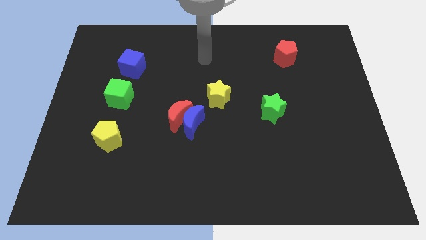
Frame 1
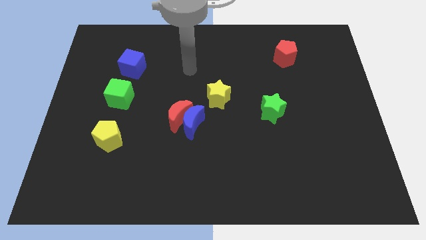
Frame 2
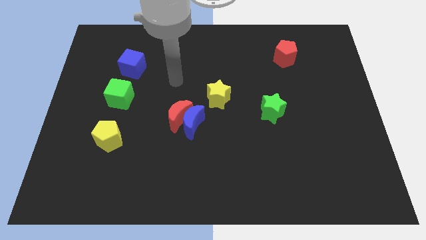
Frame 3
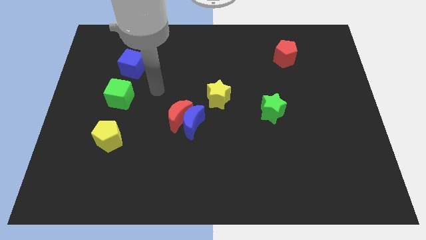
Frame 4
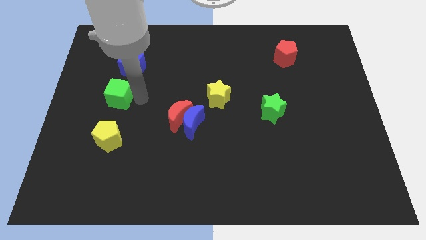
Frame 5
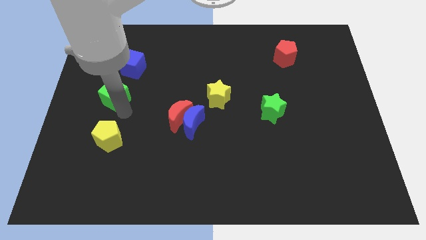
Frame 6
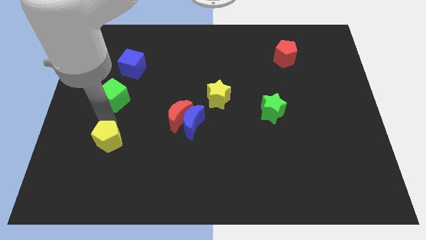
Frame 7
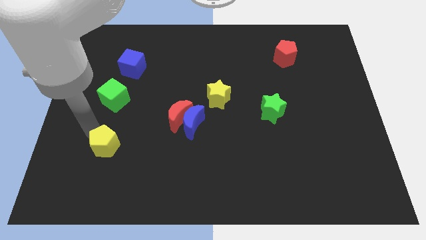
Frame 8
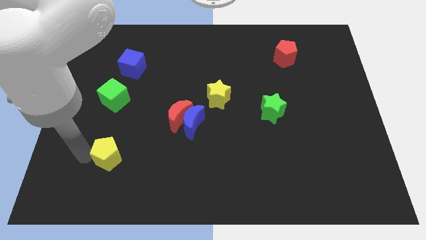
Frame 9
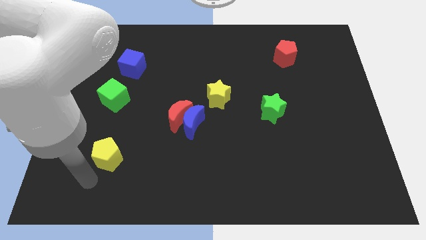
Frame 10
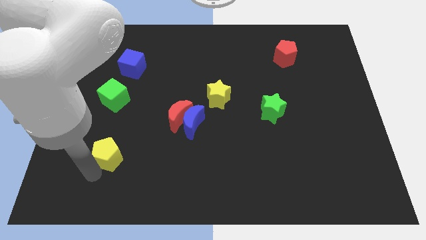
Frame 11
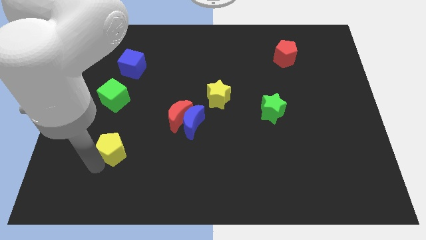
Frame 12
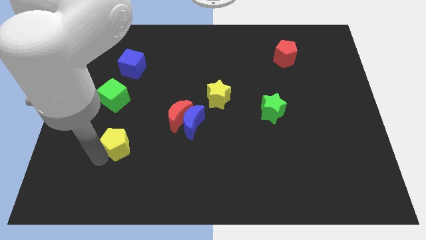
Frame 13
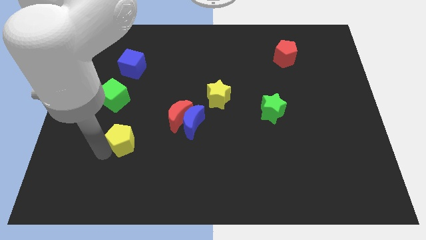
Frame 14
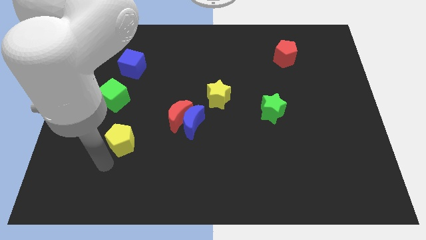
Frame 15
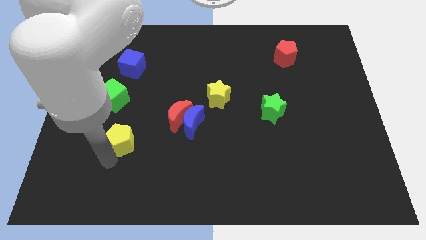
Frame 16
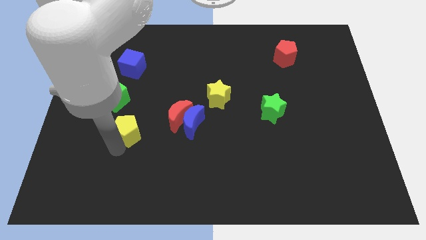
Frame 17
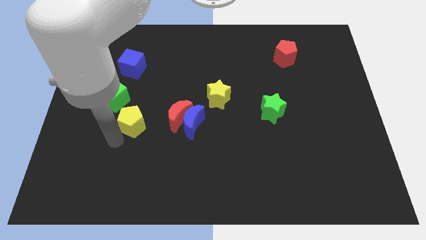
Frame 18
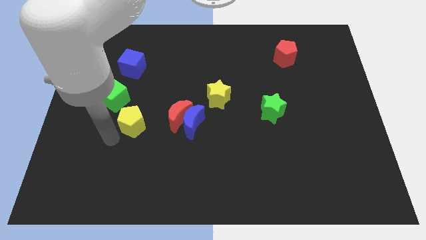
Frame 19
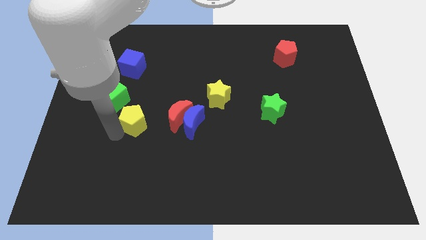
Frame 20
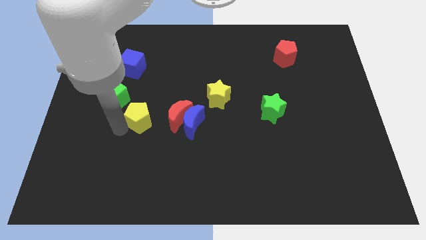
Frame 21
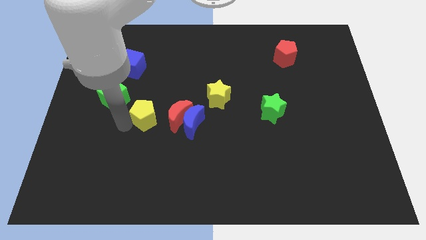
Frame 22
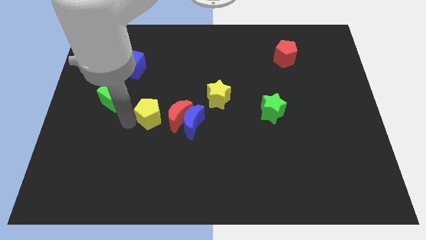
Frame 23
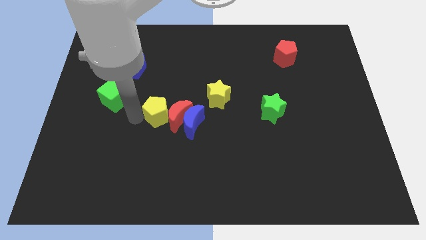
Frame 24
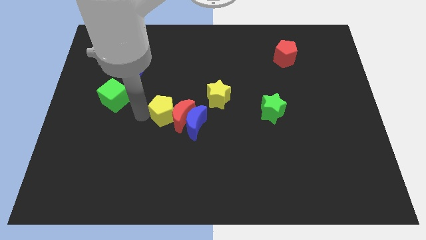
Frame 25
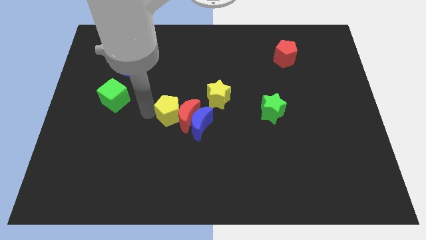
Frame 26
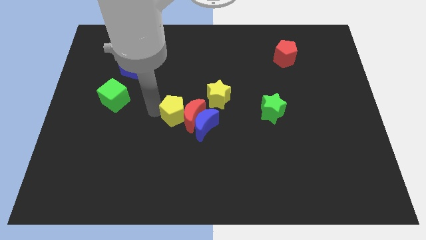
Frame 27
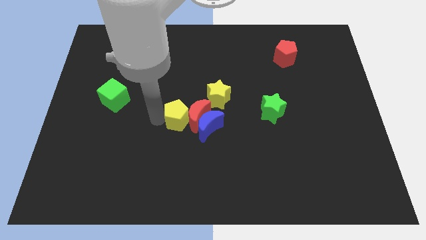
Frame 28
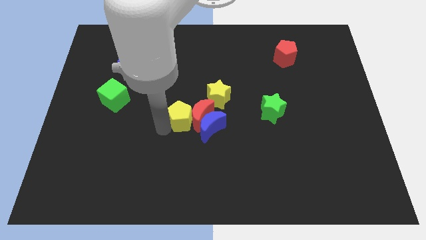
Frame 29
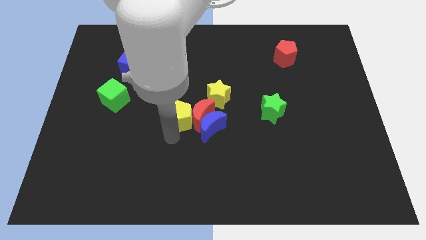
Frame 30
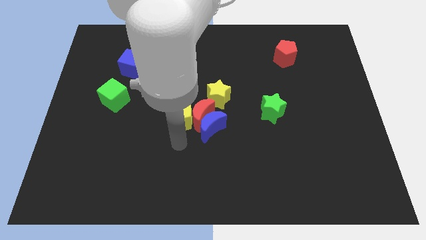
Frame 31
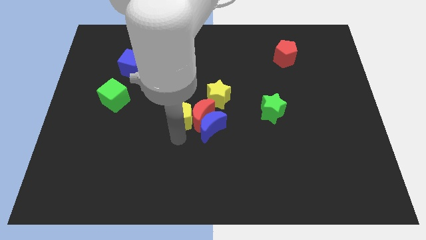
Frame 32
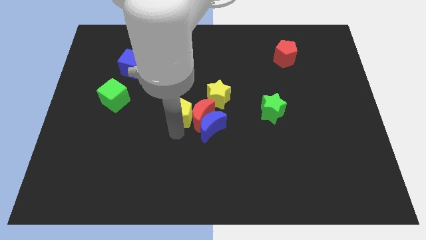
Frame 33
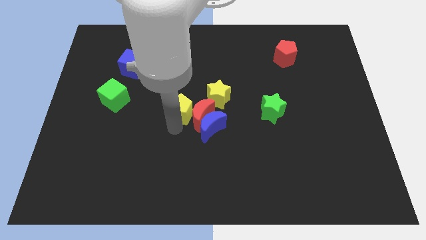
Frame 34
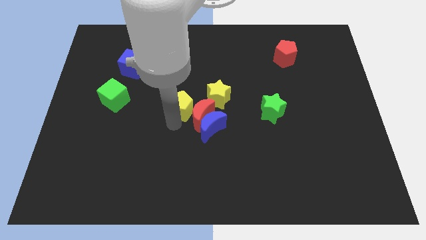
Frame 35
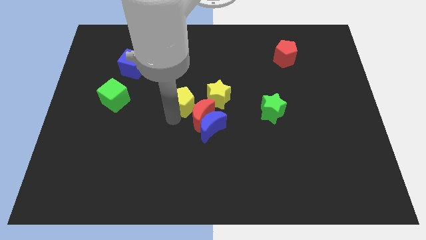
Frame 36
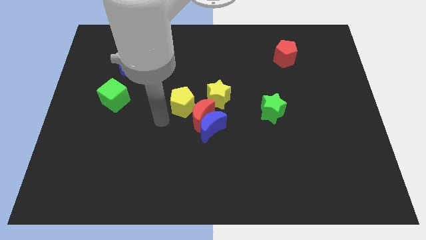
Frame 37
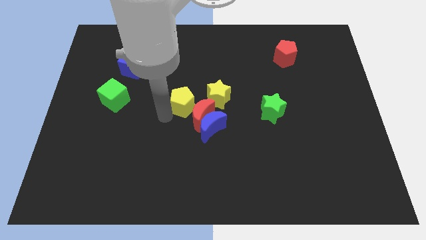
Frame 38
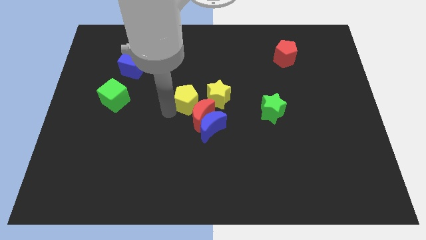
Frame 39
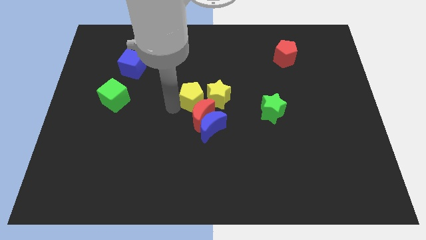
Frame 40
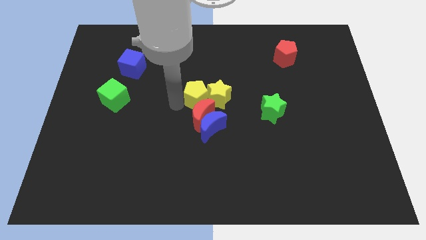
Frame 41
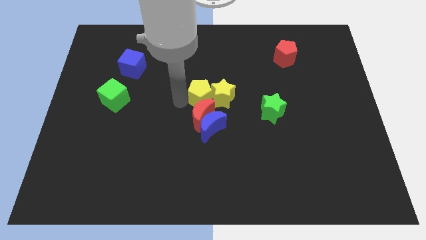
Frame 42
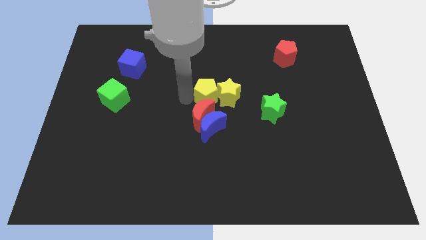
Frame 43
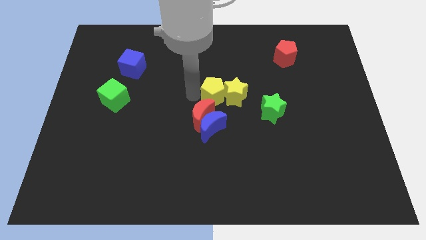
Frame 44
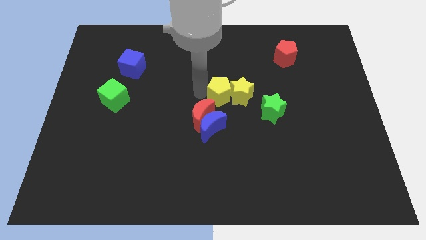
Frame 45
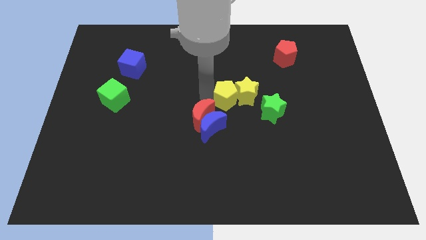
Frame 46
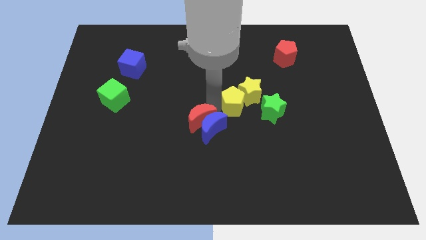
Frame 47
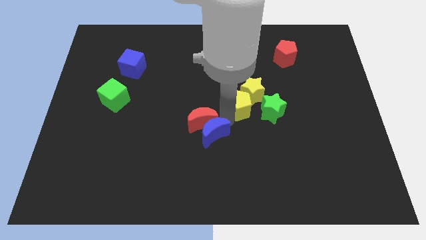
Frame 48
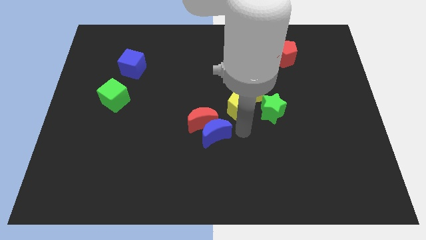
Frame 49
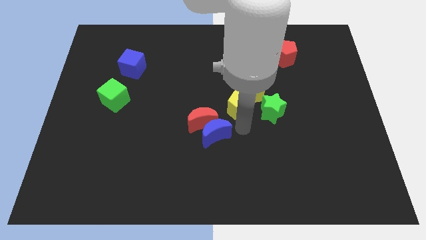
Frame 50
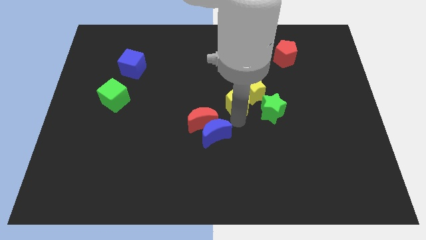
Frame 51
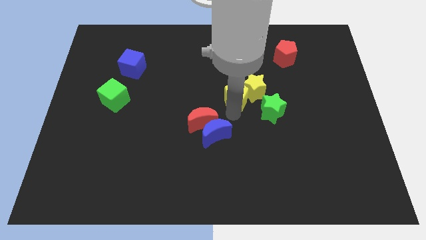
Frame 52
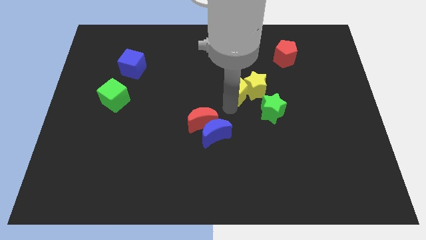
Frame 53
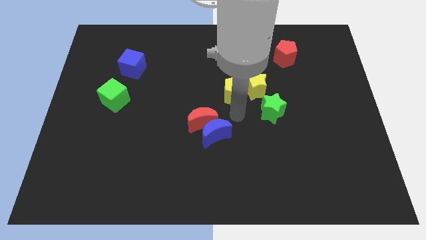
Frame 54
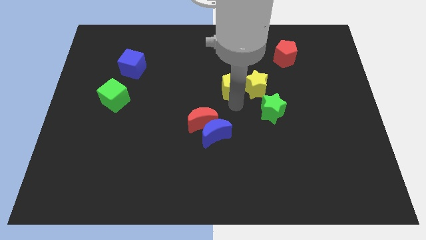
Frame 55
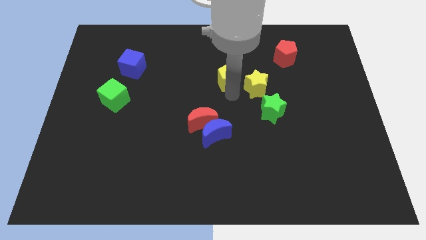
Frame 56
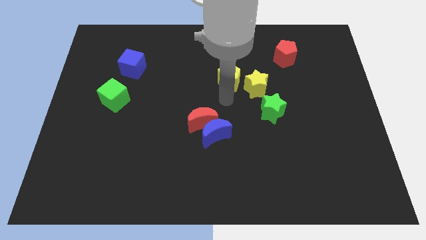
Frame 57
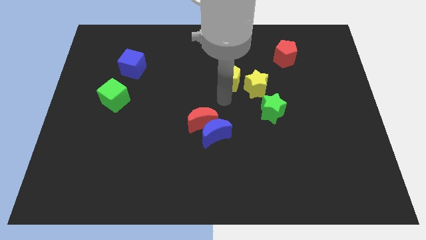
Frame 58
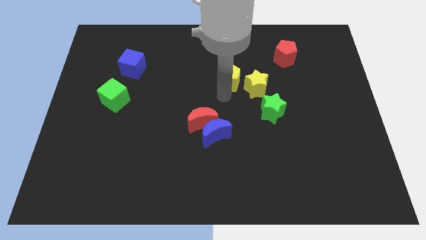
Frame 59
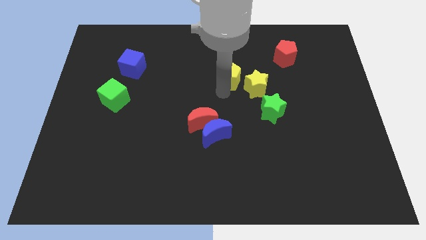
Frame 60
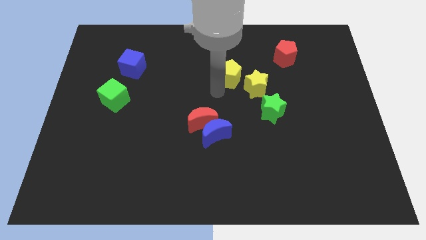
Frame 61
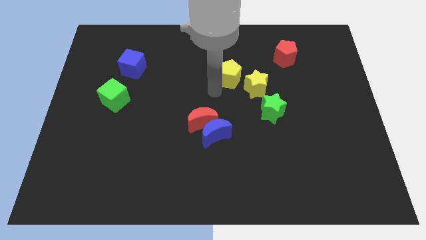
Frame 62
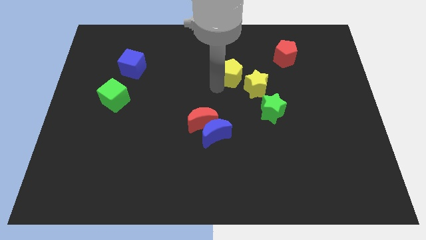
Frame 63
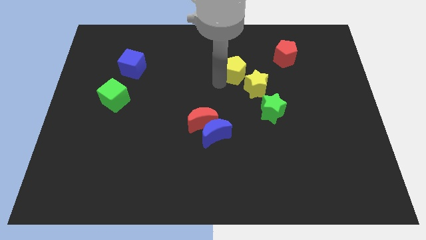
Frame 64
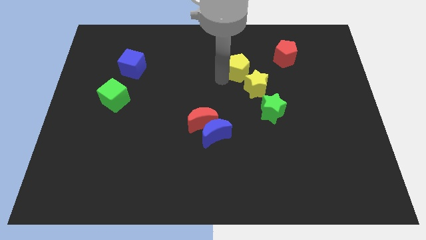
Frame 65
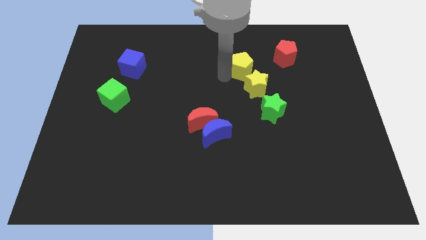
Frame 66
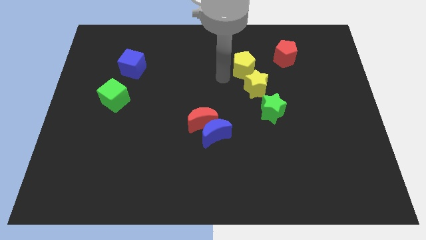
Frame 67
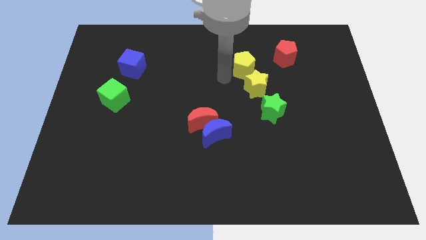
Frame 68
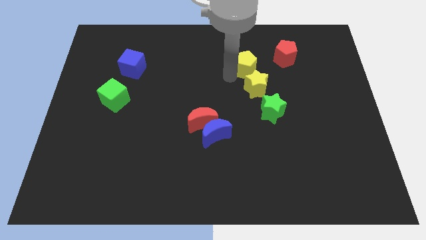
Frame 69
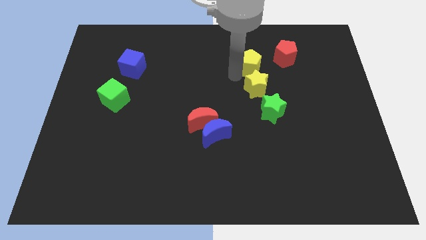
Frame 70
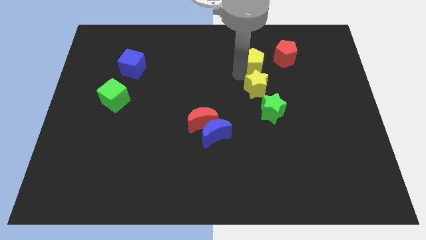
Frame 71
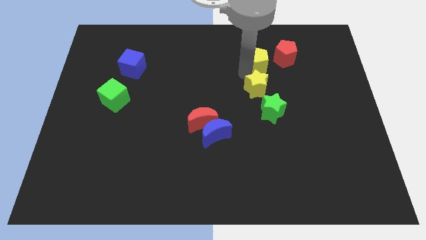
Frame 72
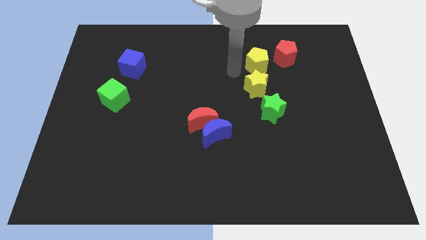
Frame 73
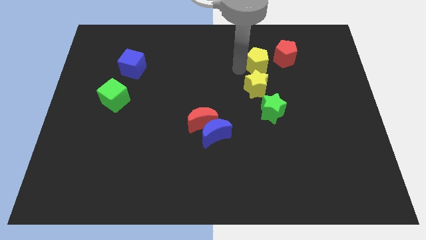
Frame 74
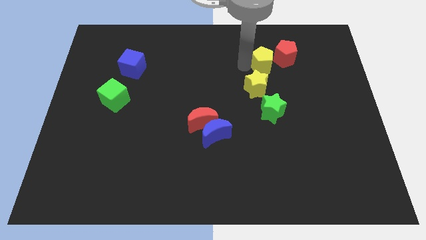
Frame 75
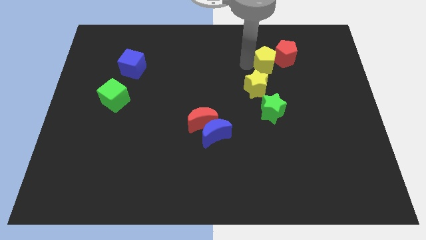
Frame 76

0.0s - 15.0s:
put the yellow pentagon close to the red pentagon

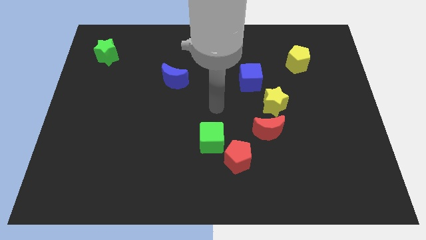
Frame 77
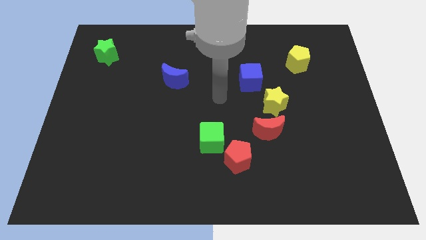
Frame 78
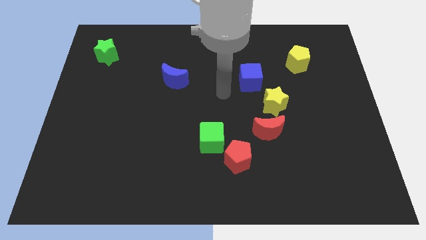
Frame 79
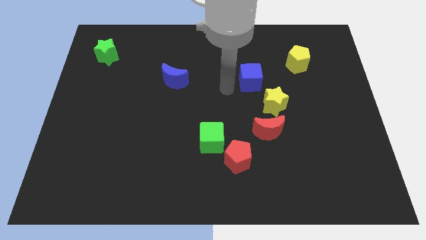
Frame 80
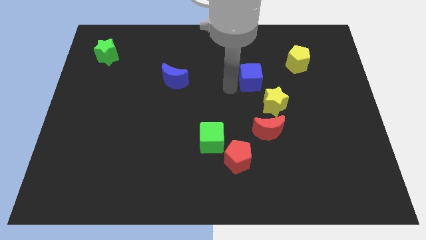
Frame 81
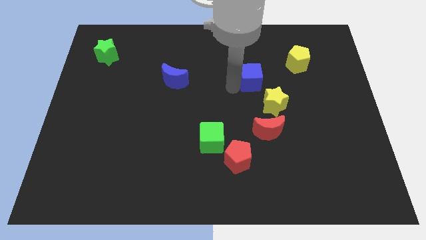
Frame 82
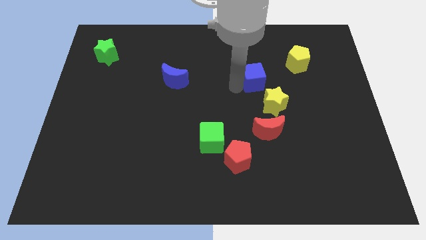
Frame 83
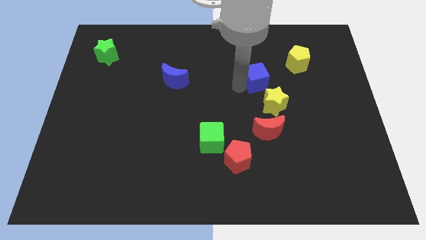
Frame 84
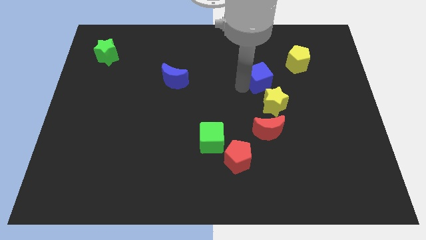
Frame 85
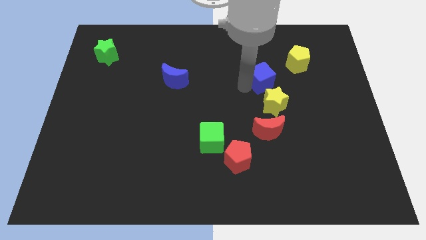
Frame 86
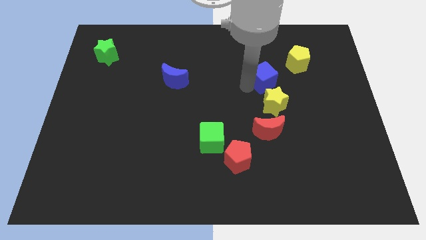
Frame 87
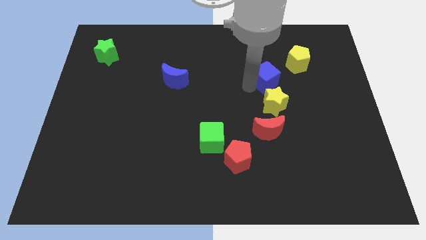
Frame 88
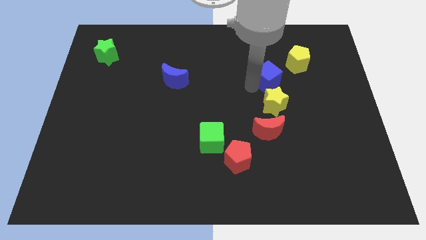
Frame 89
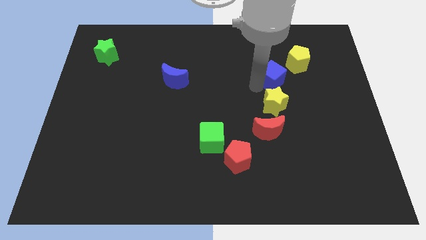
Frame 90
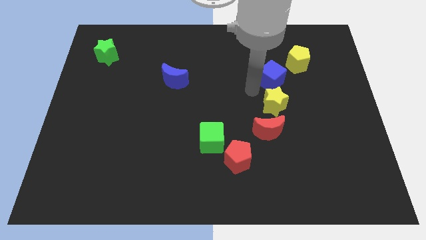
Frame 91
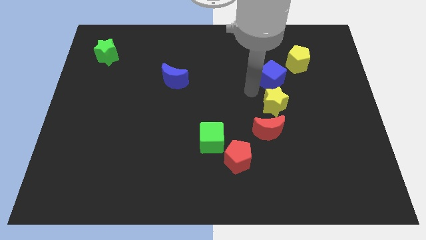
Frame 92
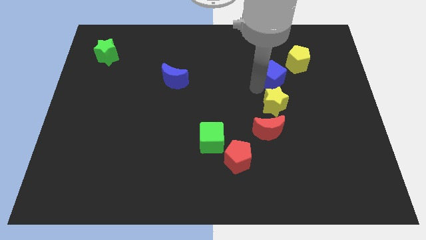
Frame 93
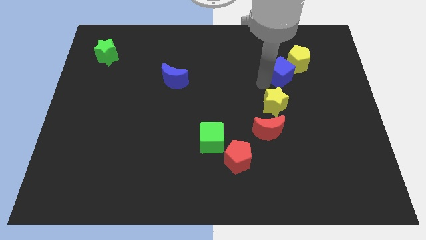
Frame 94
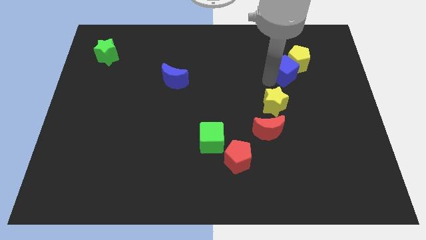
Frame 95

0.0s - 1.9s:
slide the blue cube towards the yellow pentagon
